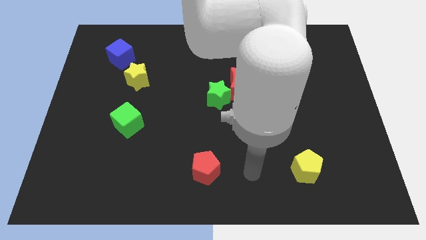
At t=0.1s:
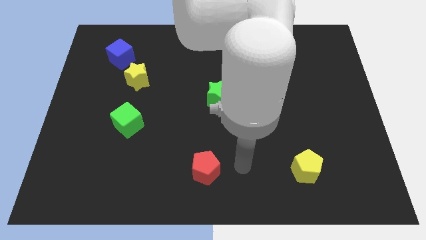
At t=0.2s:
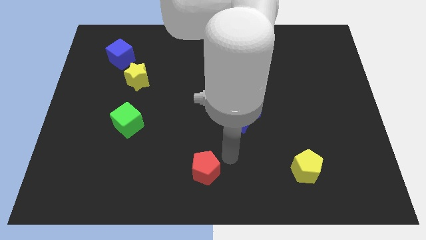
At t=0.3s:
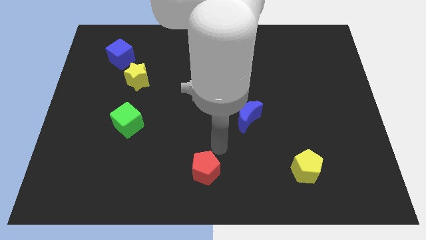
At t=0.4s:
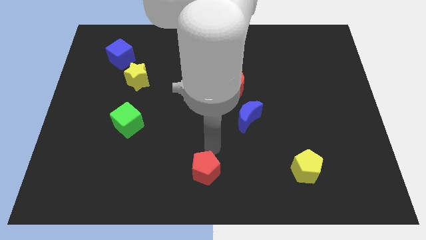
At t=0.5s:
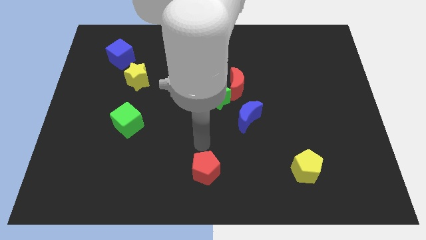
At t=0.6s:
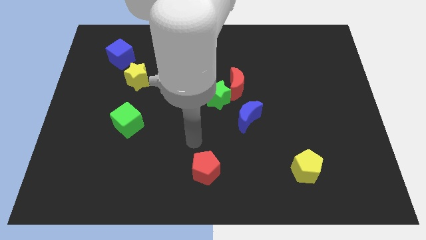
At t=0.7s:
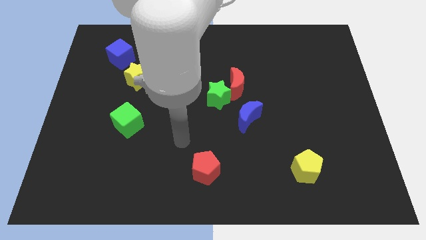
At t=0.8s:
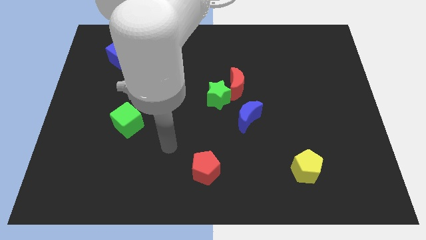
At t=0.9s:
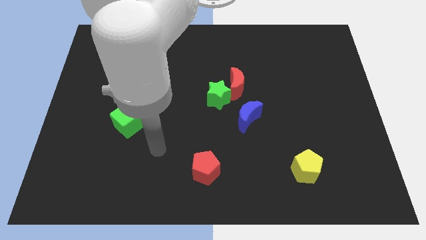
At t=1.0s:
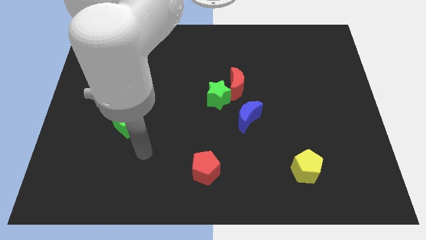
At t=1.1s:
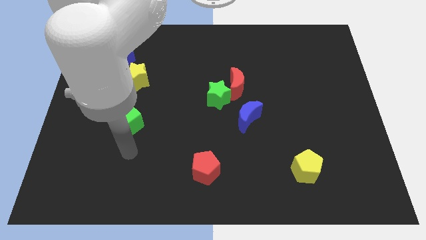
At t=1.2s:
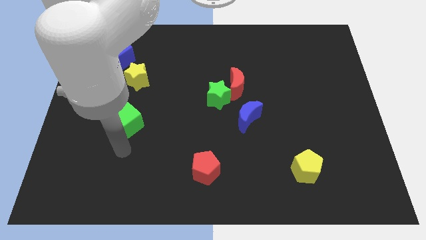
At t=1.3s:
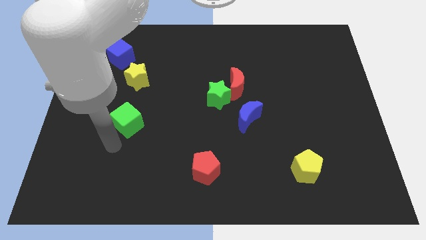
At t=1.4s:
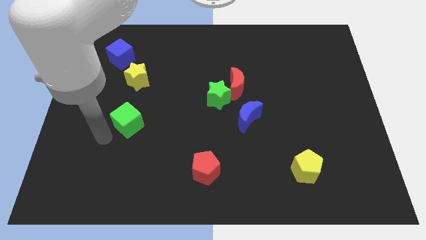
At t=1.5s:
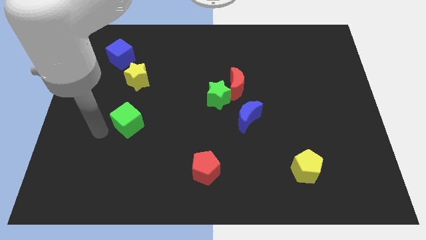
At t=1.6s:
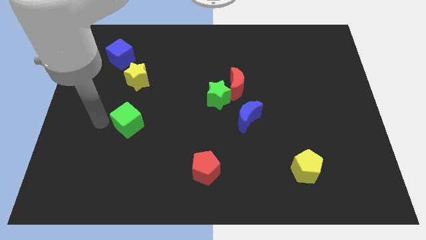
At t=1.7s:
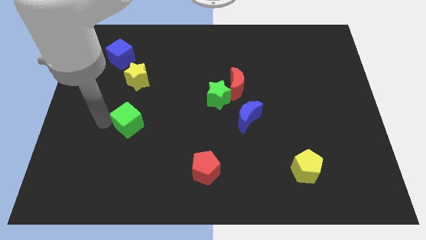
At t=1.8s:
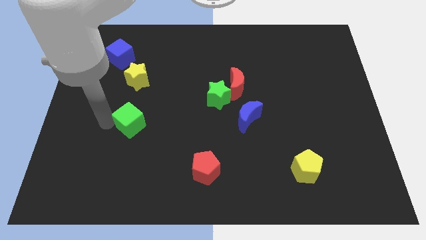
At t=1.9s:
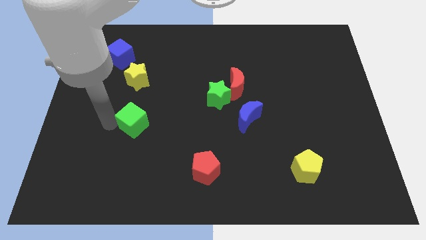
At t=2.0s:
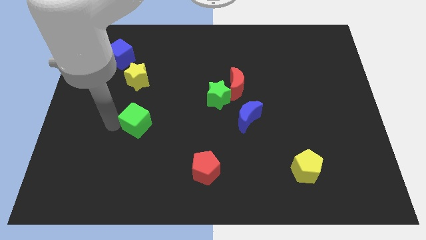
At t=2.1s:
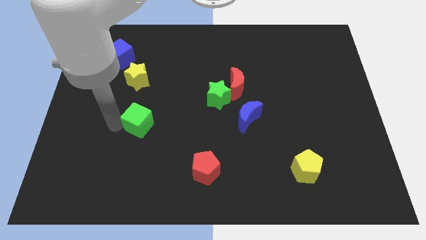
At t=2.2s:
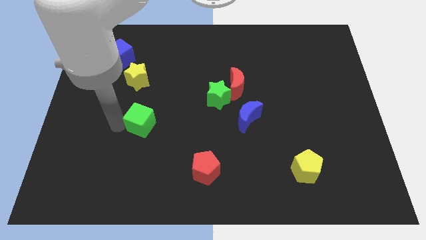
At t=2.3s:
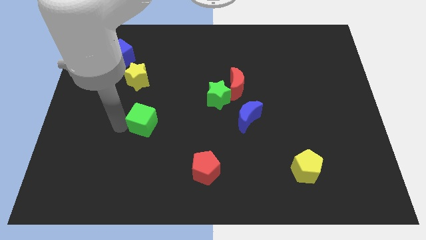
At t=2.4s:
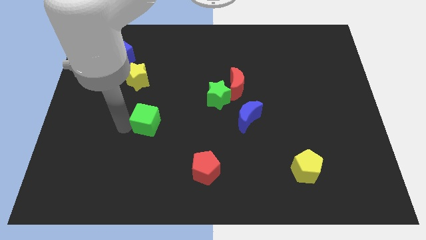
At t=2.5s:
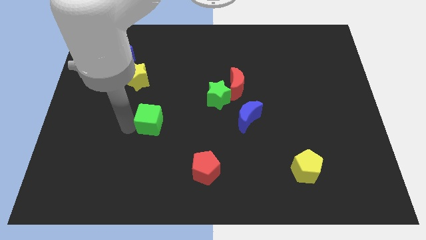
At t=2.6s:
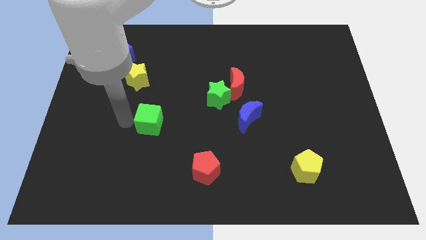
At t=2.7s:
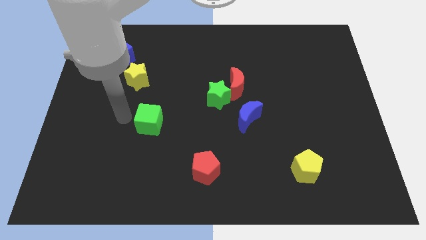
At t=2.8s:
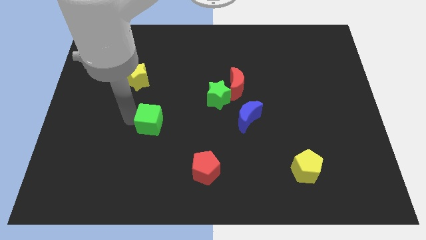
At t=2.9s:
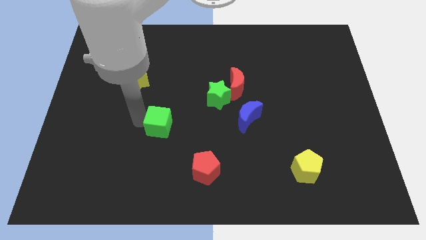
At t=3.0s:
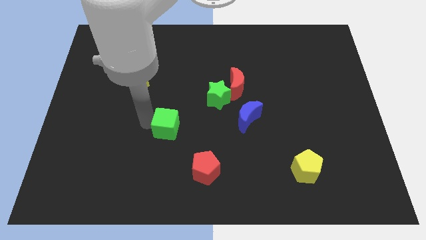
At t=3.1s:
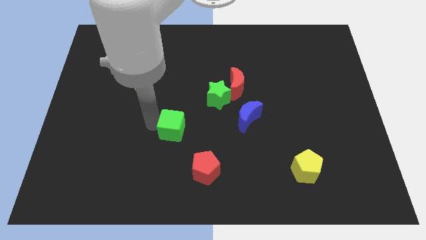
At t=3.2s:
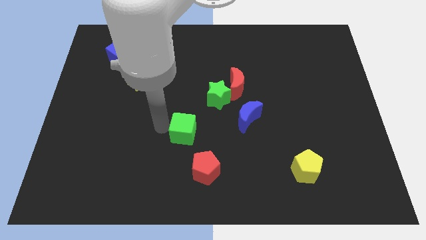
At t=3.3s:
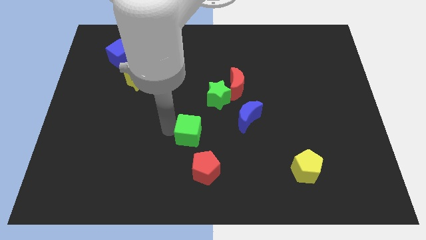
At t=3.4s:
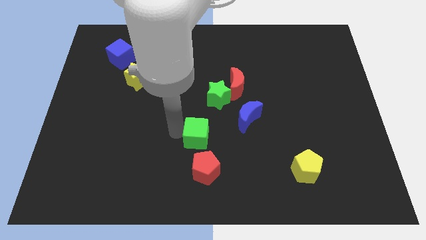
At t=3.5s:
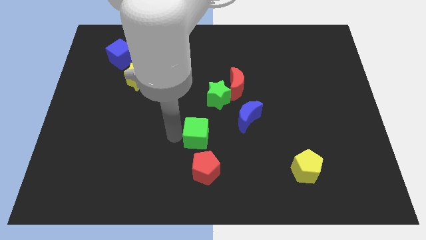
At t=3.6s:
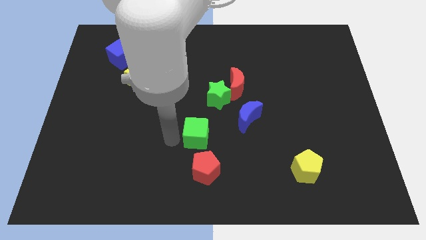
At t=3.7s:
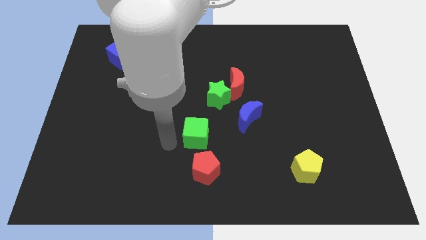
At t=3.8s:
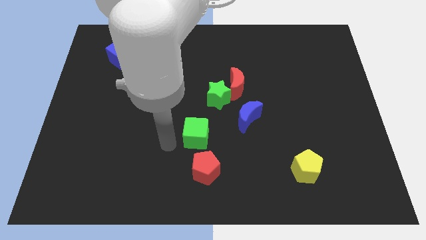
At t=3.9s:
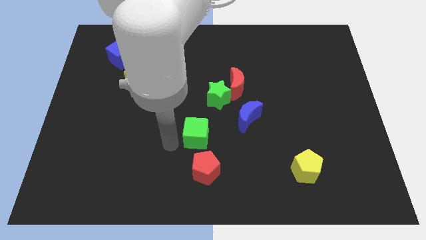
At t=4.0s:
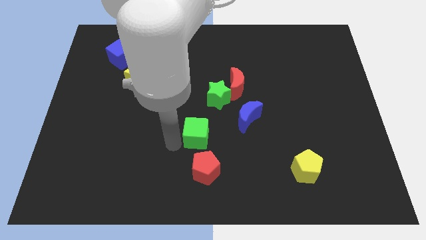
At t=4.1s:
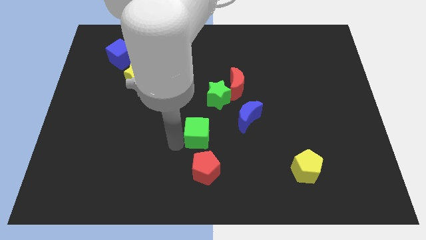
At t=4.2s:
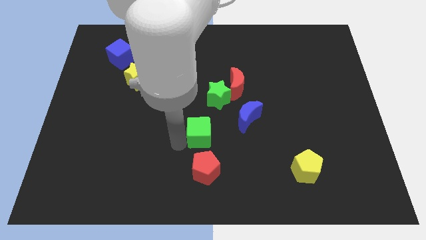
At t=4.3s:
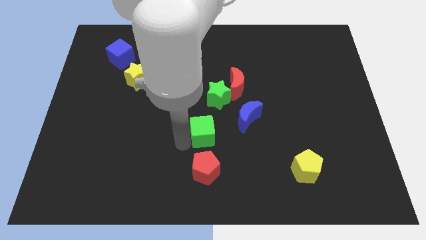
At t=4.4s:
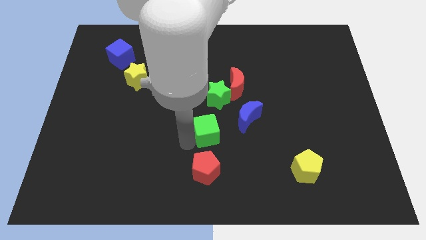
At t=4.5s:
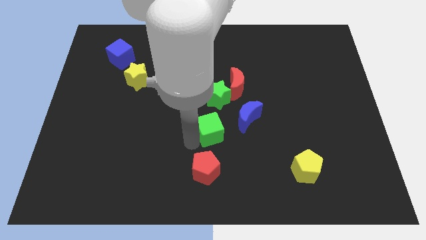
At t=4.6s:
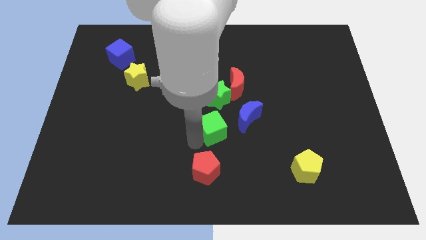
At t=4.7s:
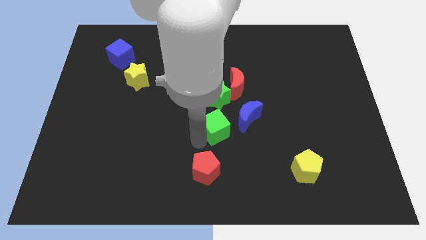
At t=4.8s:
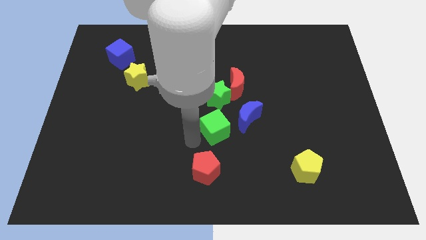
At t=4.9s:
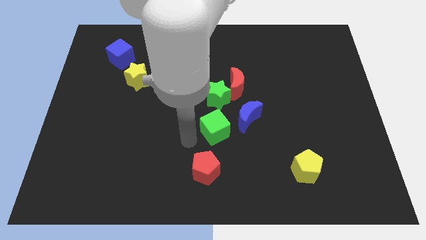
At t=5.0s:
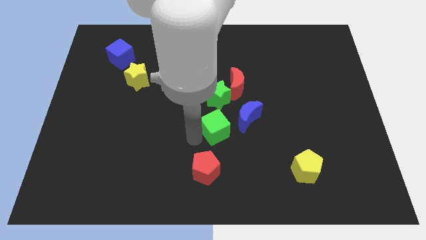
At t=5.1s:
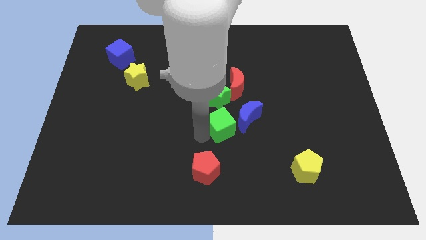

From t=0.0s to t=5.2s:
slide the green cube to the bottom side of the red moon

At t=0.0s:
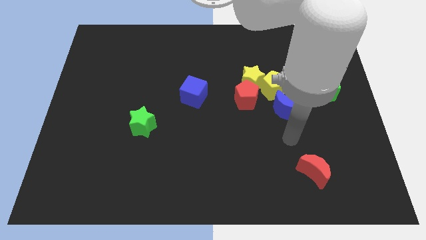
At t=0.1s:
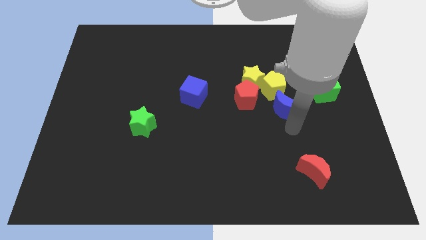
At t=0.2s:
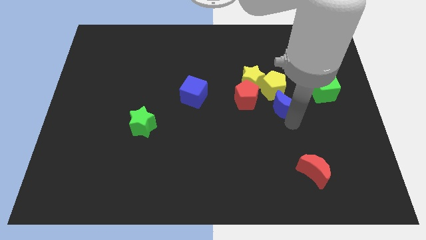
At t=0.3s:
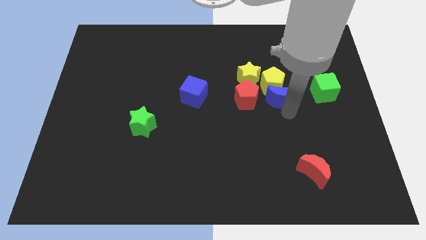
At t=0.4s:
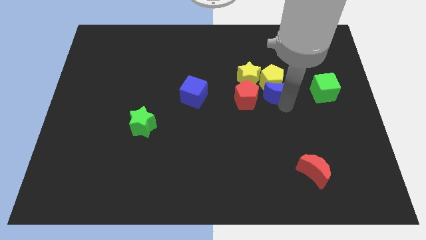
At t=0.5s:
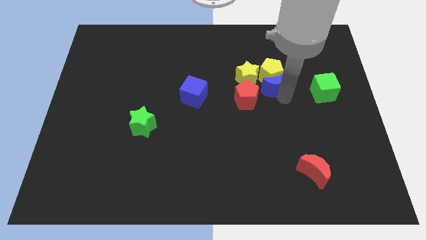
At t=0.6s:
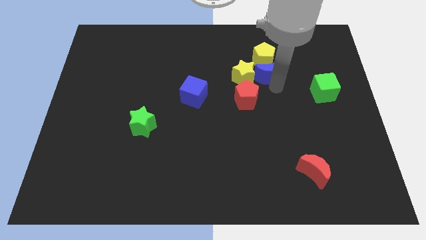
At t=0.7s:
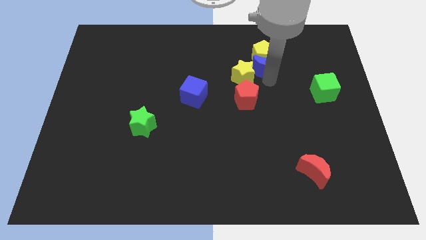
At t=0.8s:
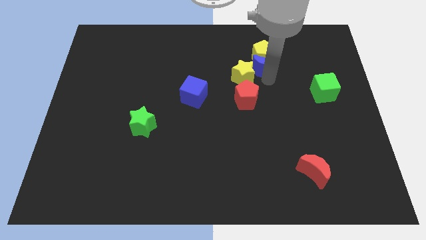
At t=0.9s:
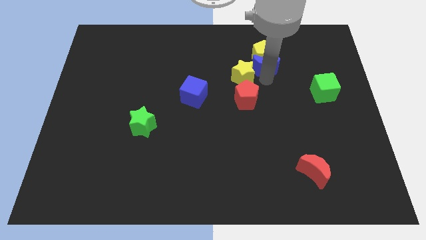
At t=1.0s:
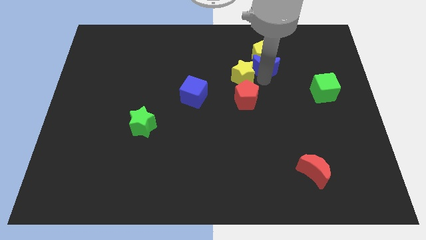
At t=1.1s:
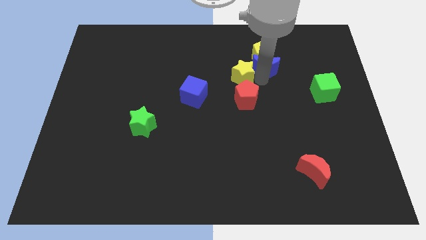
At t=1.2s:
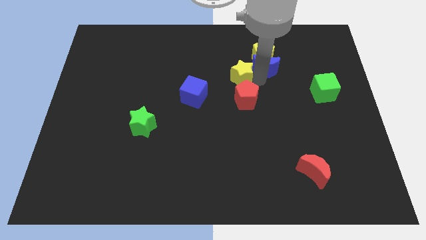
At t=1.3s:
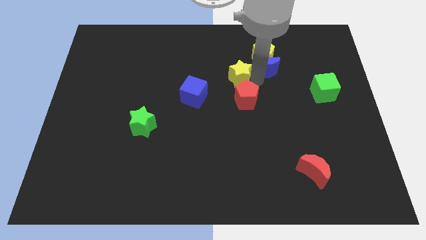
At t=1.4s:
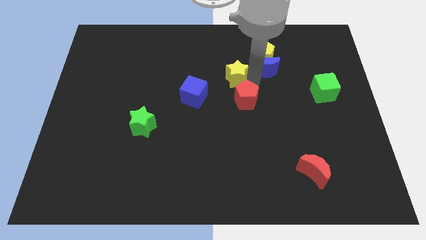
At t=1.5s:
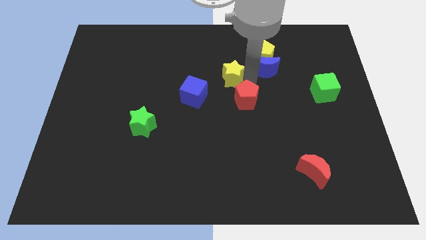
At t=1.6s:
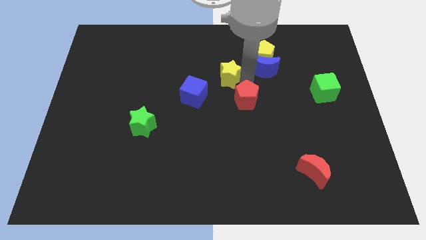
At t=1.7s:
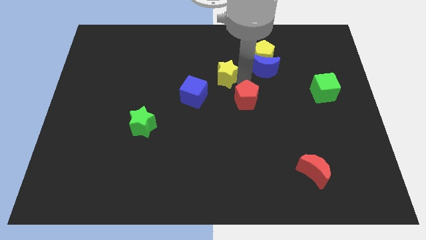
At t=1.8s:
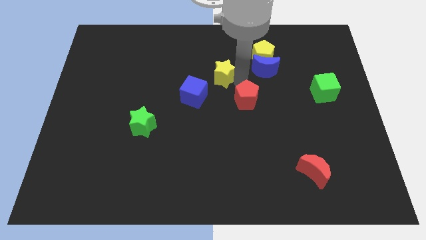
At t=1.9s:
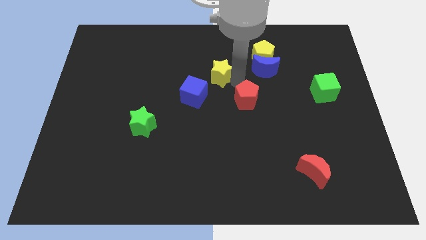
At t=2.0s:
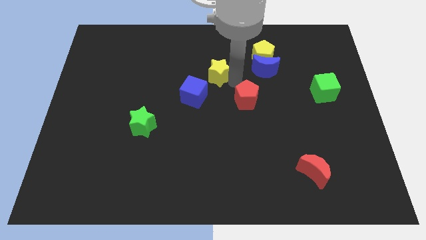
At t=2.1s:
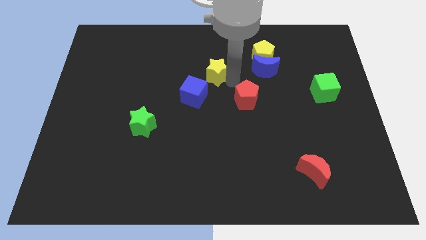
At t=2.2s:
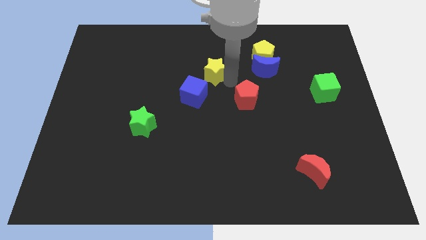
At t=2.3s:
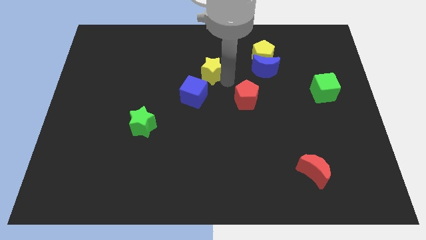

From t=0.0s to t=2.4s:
slide the yellow star above the blue cube
